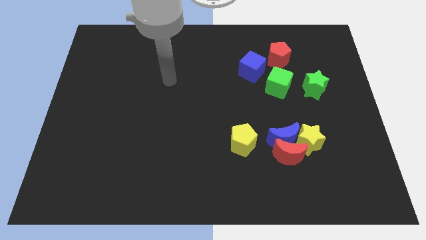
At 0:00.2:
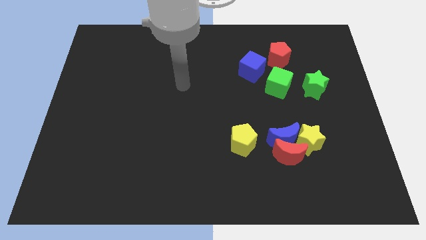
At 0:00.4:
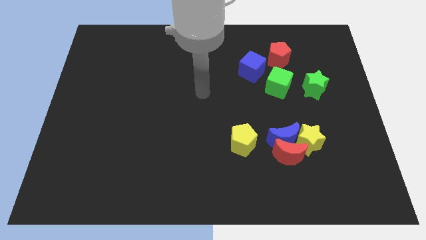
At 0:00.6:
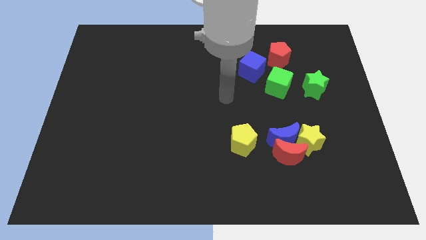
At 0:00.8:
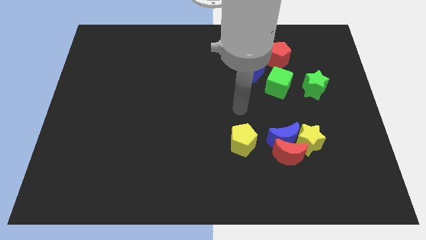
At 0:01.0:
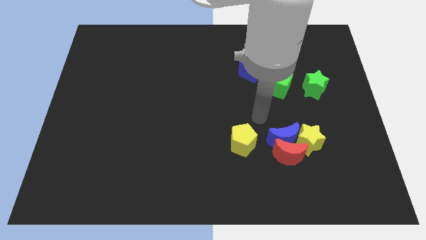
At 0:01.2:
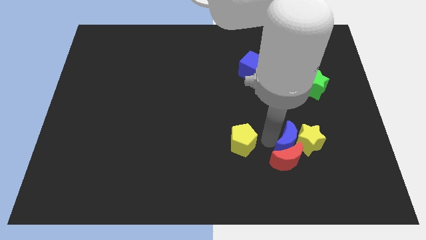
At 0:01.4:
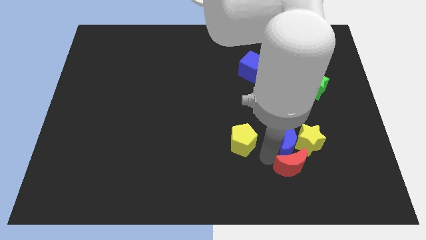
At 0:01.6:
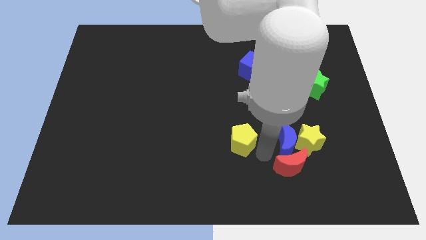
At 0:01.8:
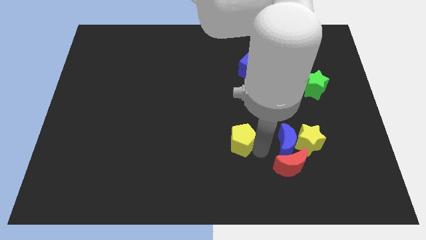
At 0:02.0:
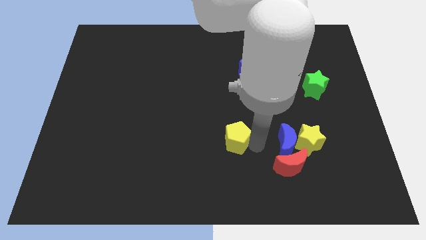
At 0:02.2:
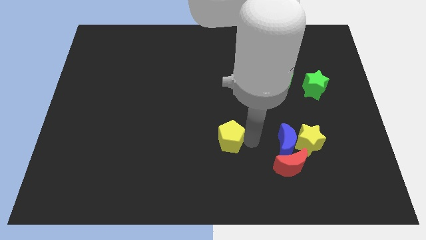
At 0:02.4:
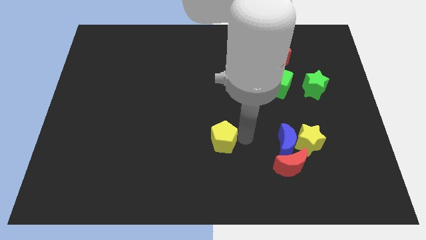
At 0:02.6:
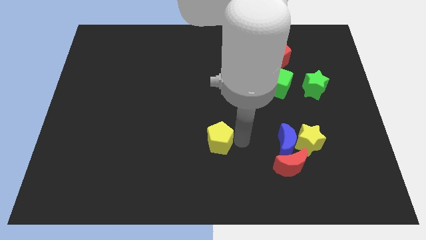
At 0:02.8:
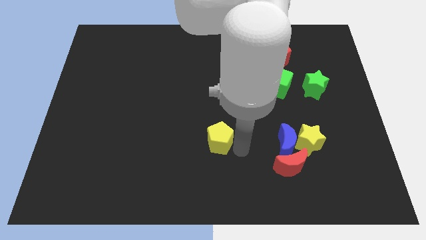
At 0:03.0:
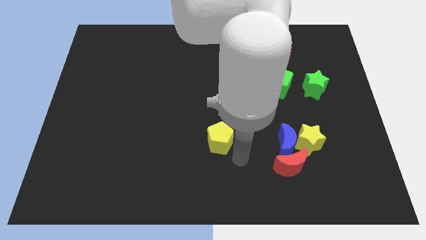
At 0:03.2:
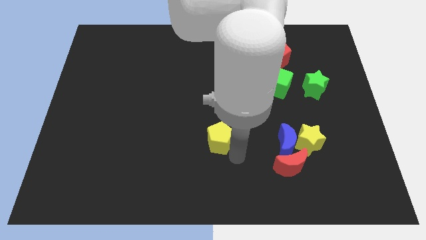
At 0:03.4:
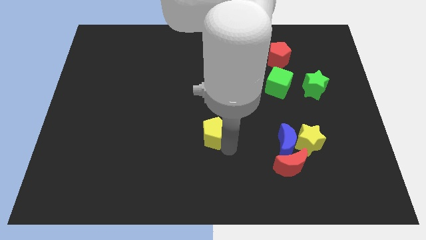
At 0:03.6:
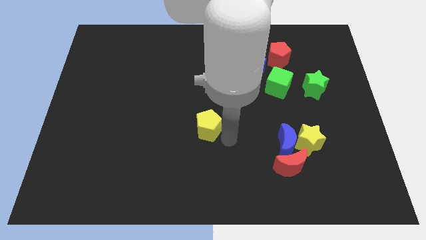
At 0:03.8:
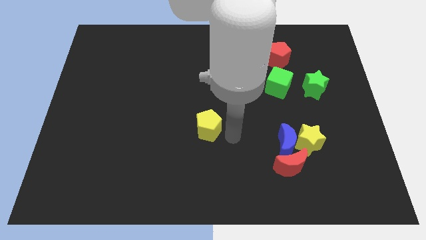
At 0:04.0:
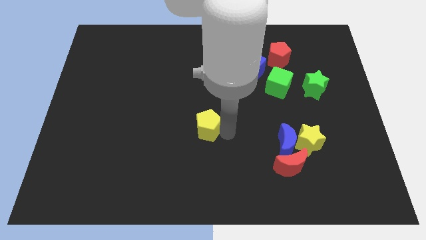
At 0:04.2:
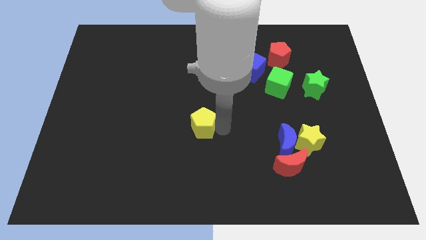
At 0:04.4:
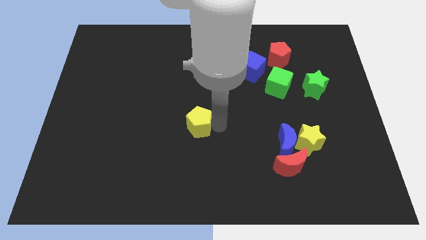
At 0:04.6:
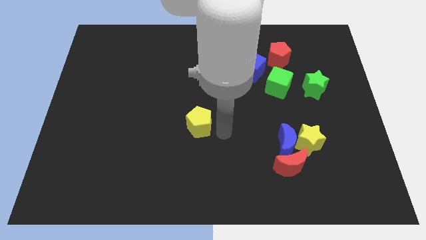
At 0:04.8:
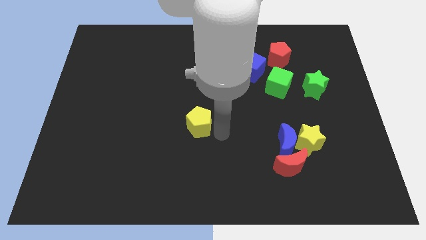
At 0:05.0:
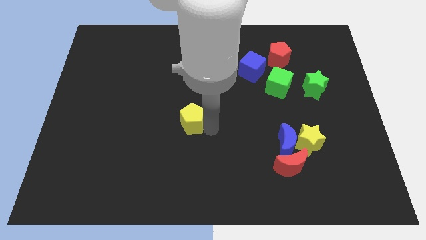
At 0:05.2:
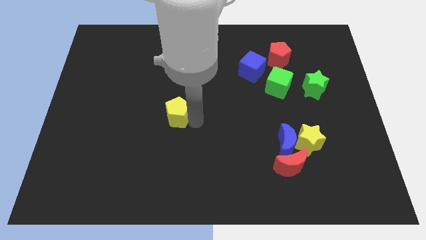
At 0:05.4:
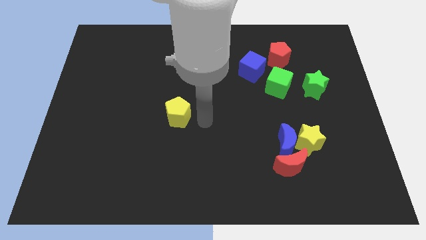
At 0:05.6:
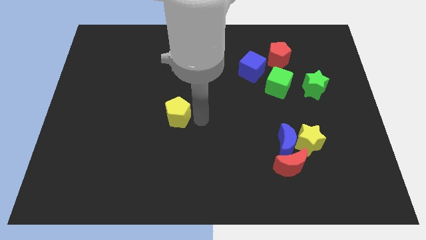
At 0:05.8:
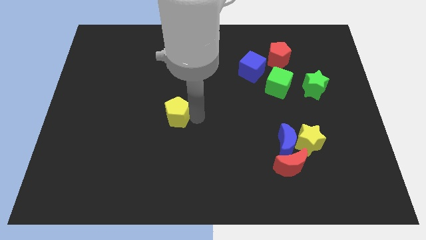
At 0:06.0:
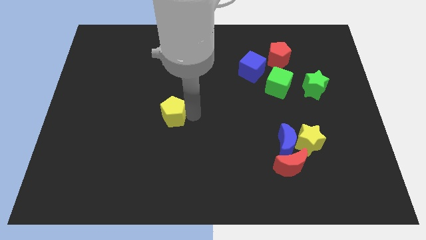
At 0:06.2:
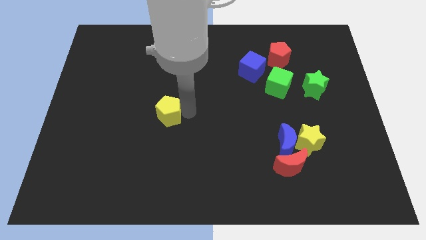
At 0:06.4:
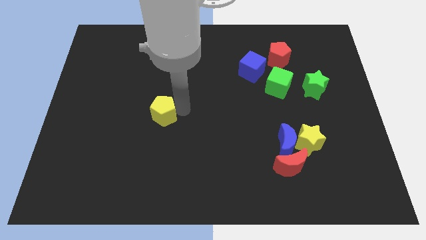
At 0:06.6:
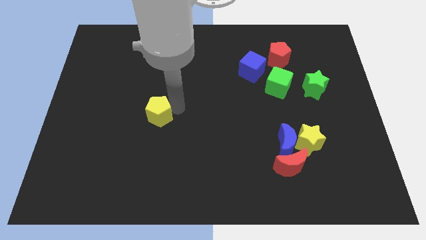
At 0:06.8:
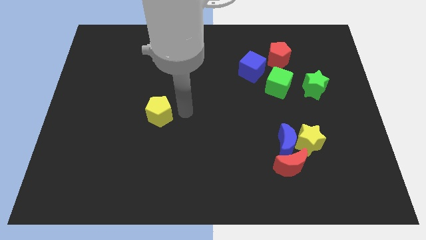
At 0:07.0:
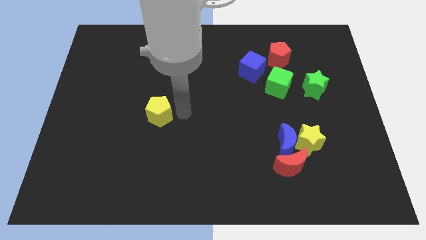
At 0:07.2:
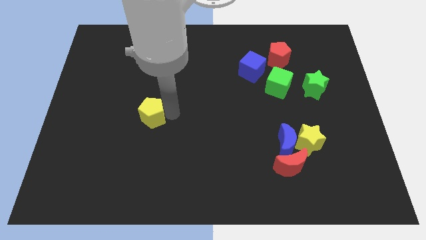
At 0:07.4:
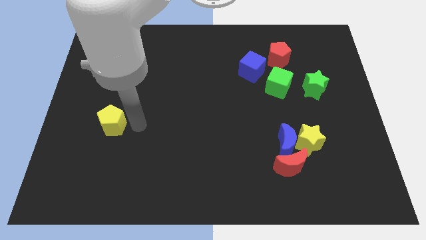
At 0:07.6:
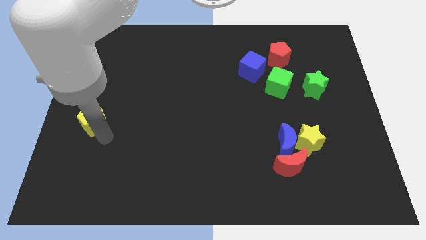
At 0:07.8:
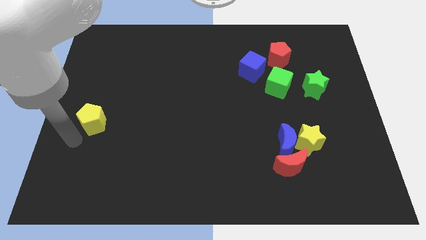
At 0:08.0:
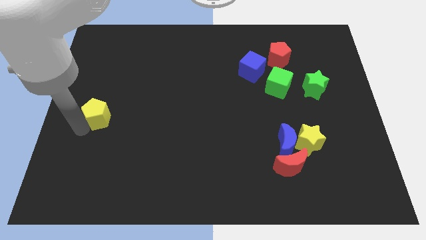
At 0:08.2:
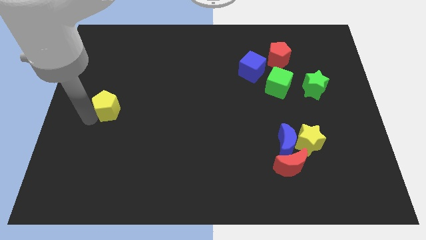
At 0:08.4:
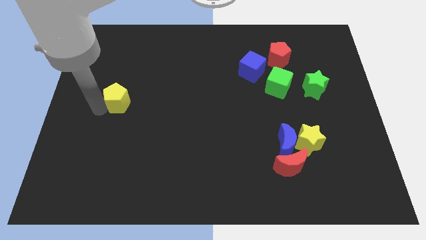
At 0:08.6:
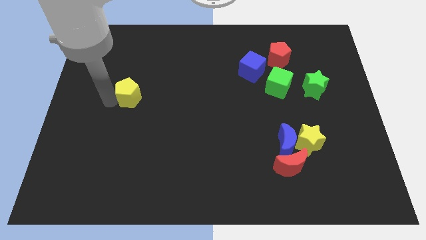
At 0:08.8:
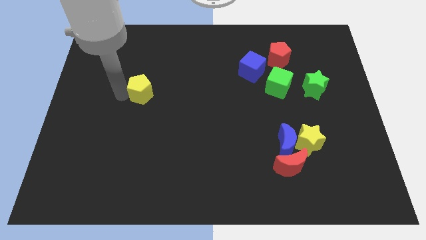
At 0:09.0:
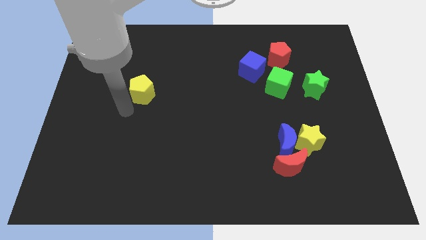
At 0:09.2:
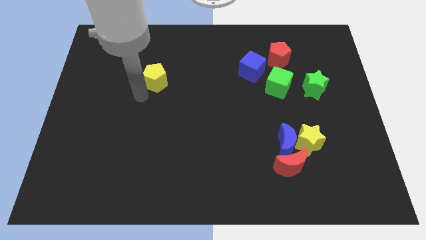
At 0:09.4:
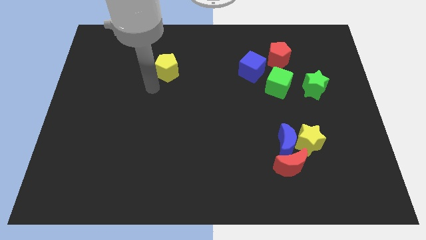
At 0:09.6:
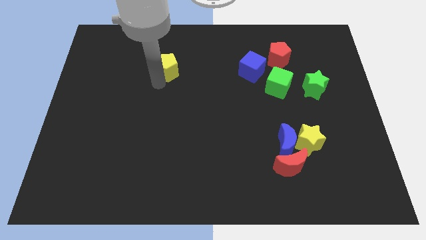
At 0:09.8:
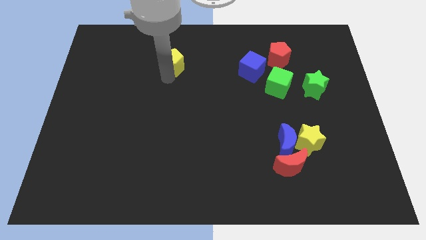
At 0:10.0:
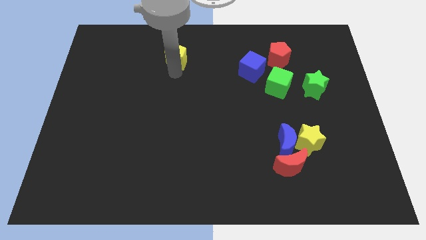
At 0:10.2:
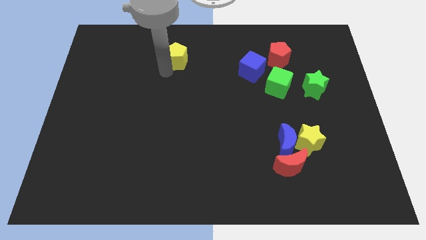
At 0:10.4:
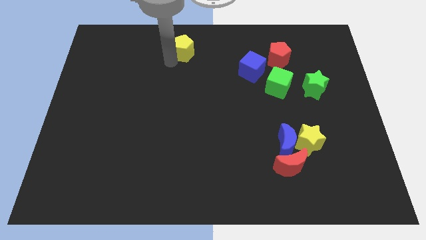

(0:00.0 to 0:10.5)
slide the yellow pentagon to the towards your base
